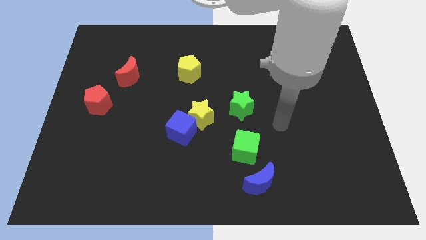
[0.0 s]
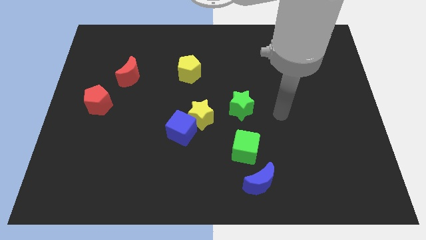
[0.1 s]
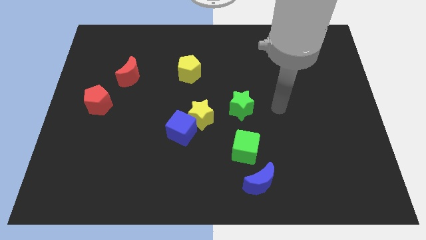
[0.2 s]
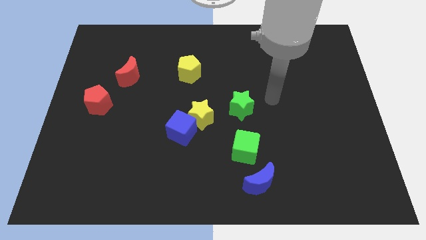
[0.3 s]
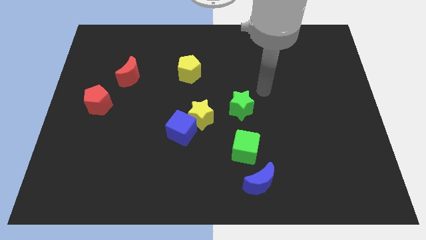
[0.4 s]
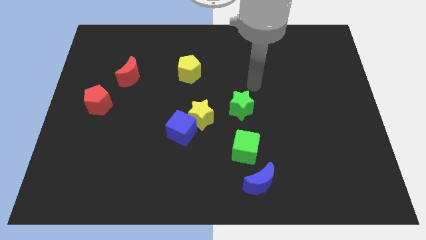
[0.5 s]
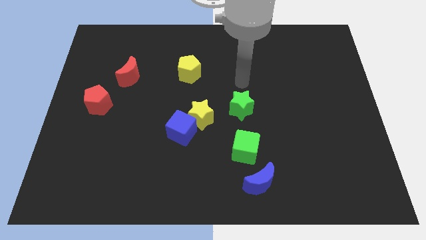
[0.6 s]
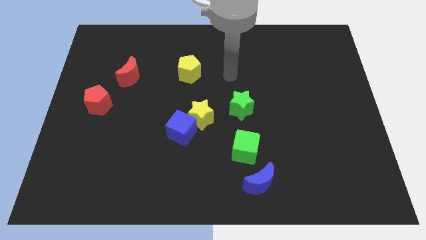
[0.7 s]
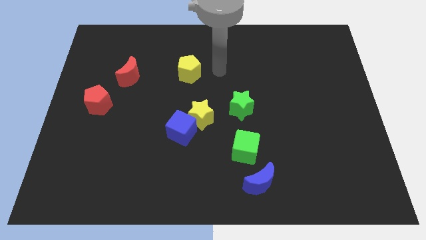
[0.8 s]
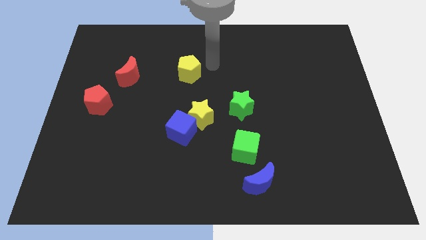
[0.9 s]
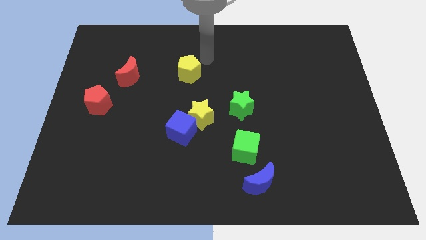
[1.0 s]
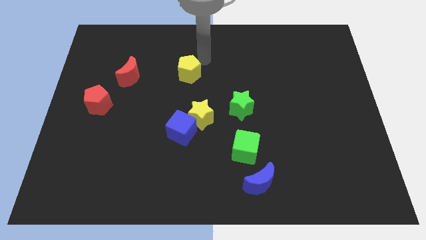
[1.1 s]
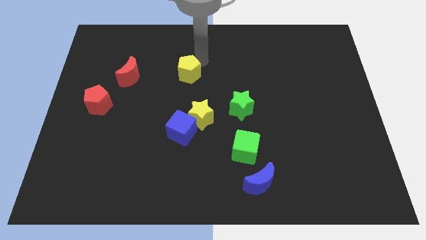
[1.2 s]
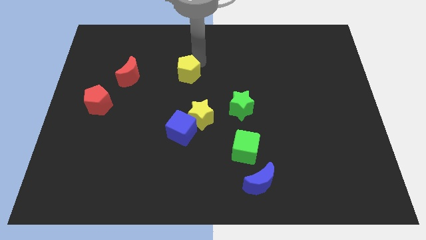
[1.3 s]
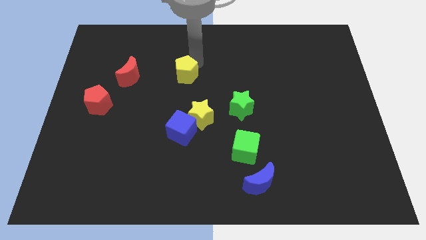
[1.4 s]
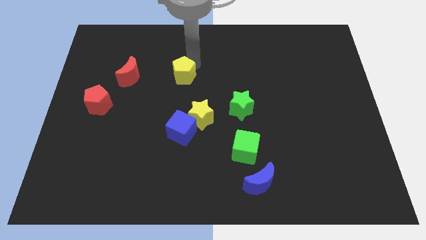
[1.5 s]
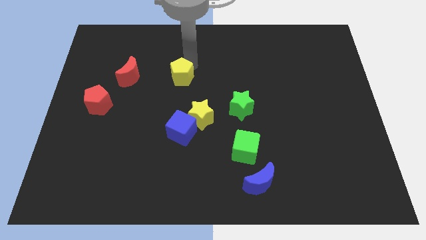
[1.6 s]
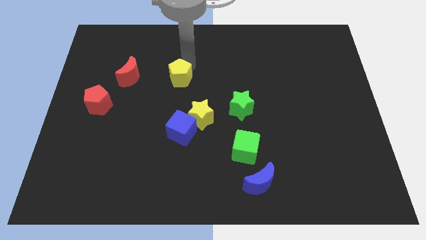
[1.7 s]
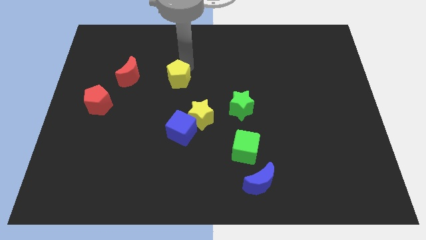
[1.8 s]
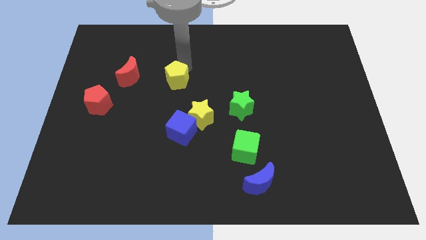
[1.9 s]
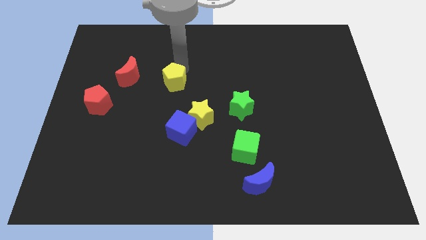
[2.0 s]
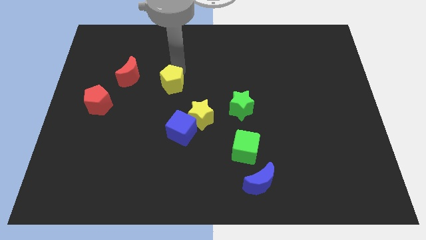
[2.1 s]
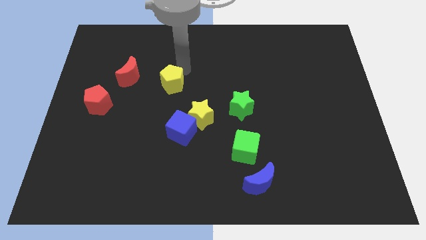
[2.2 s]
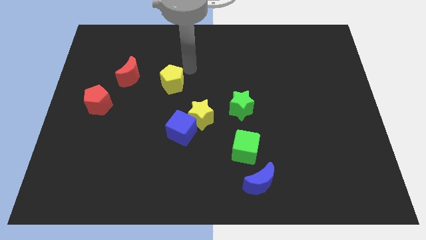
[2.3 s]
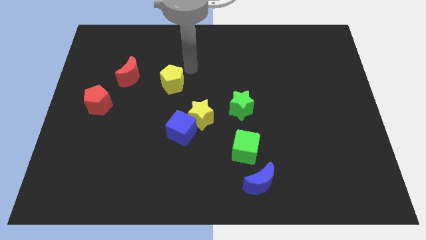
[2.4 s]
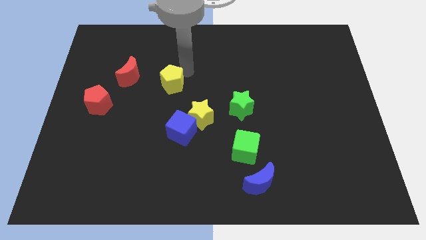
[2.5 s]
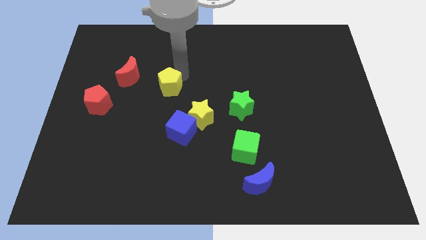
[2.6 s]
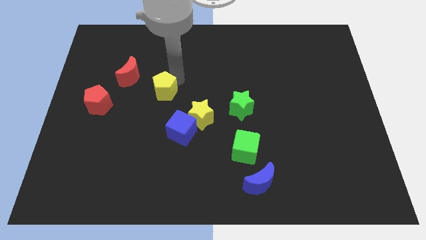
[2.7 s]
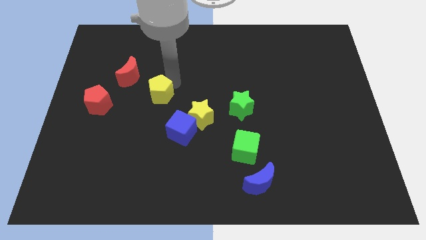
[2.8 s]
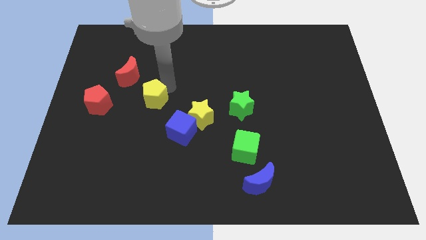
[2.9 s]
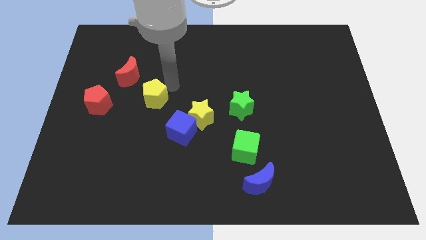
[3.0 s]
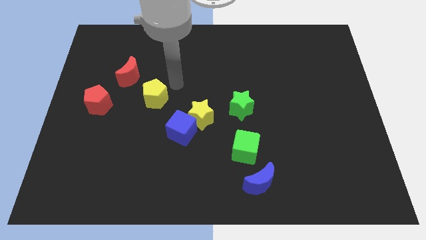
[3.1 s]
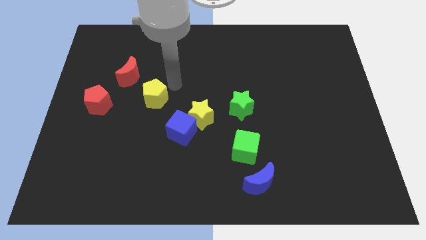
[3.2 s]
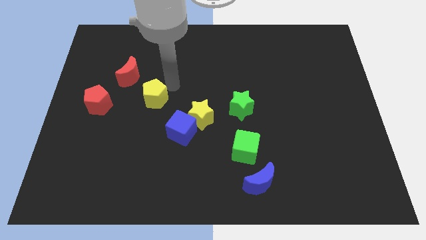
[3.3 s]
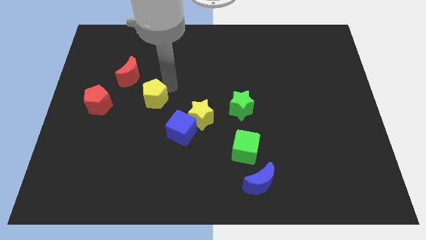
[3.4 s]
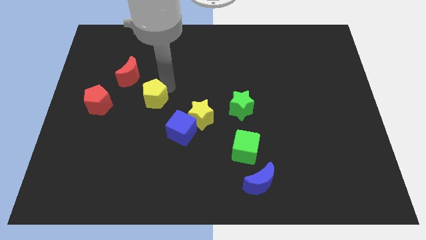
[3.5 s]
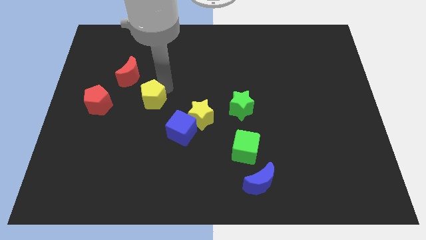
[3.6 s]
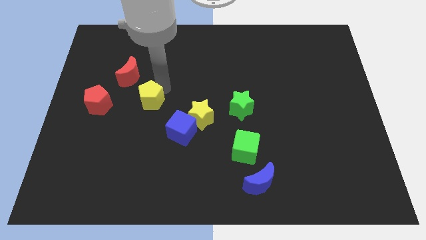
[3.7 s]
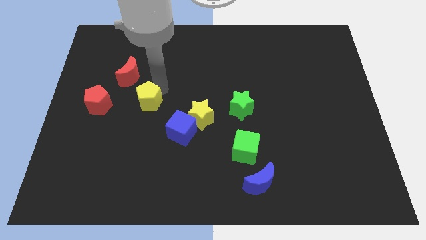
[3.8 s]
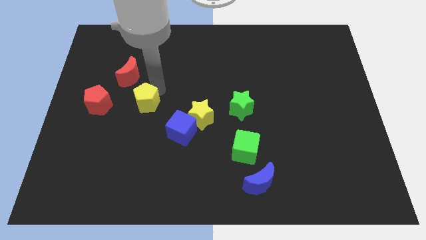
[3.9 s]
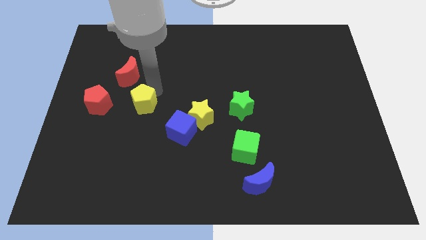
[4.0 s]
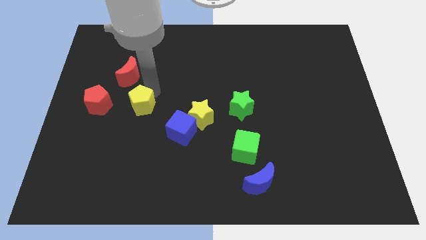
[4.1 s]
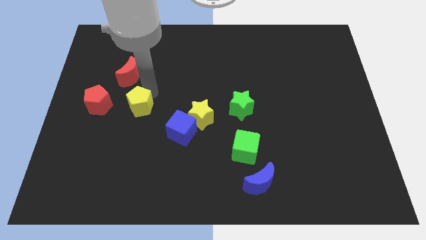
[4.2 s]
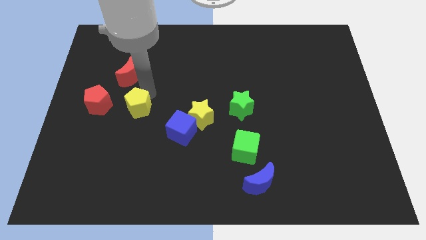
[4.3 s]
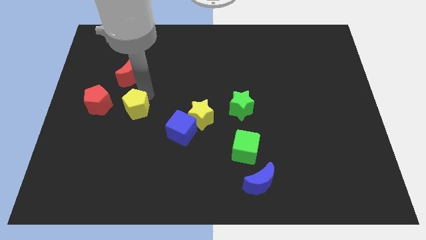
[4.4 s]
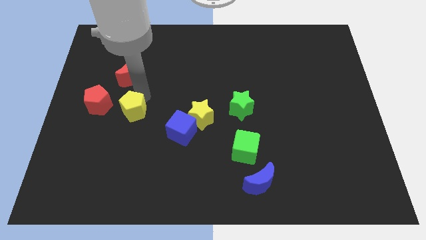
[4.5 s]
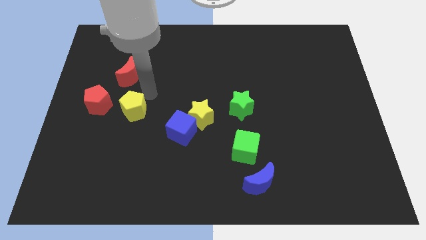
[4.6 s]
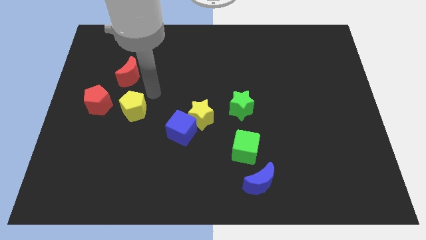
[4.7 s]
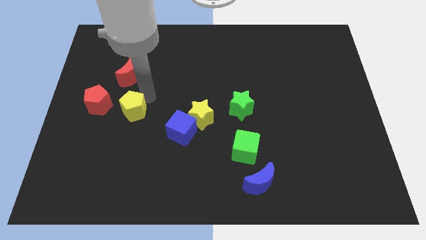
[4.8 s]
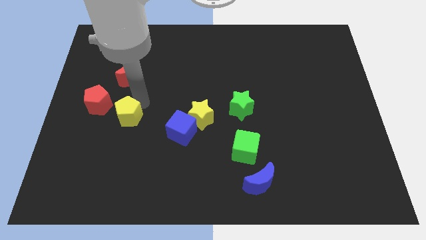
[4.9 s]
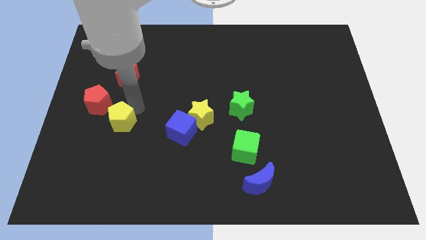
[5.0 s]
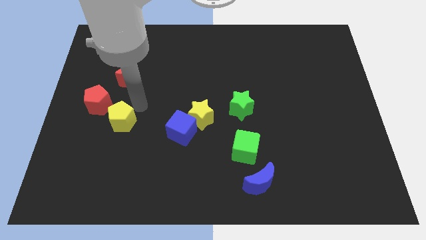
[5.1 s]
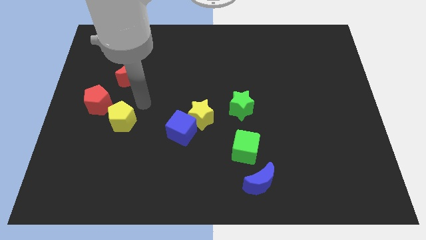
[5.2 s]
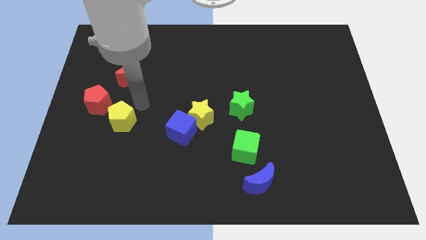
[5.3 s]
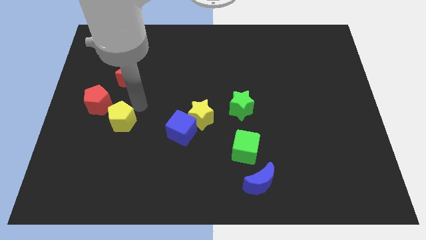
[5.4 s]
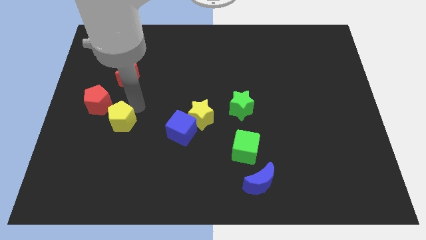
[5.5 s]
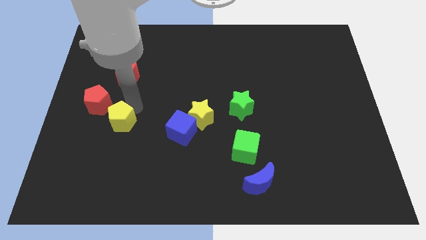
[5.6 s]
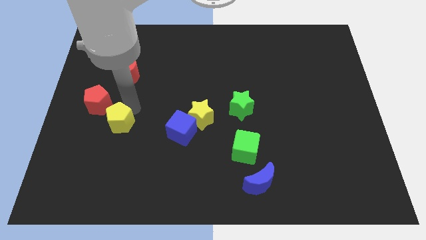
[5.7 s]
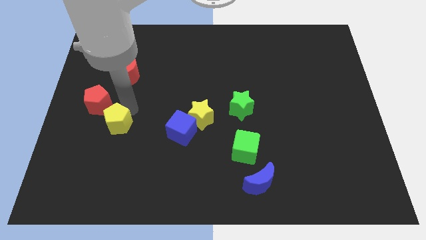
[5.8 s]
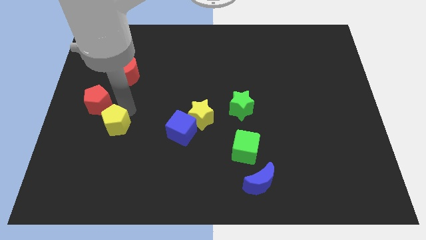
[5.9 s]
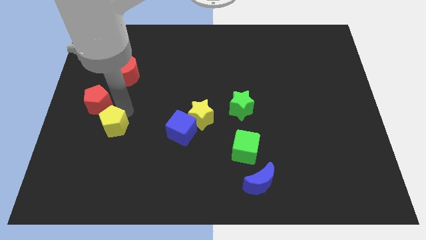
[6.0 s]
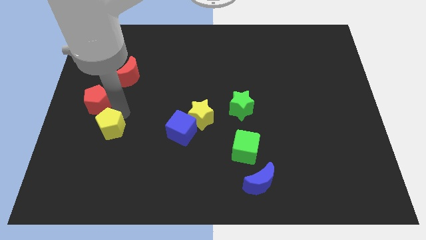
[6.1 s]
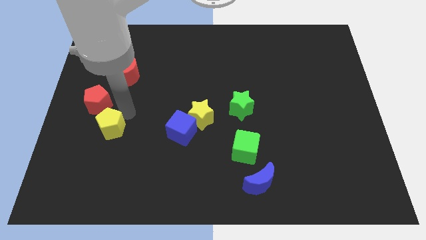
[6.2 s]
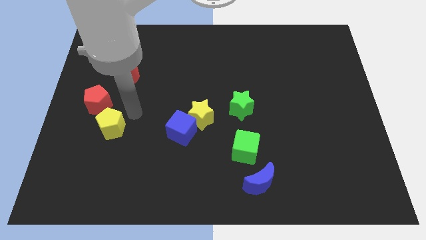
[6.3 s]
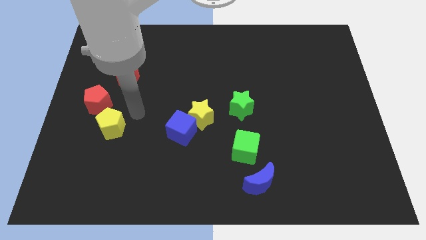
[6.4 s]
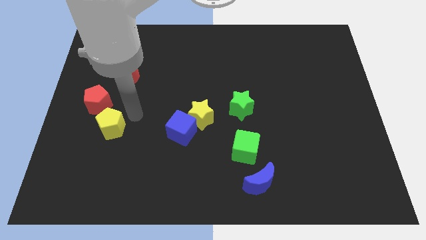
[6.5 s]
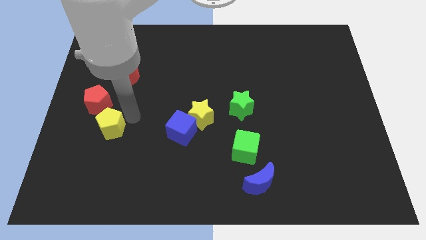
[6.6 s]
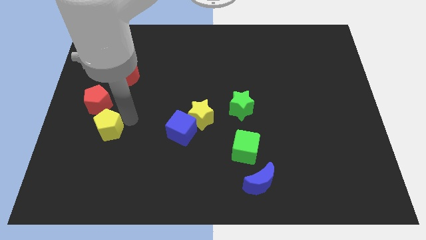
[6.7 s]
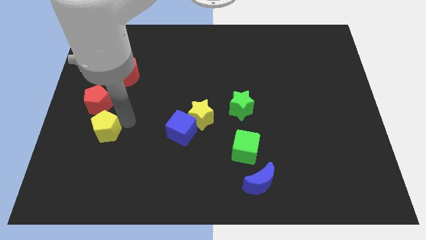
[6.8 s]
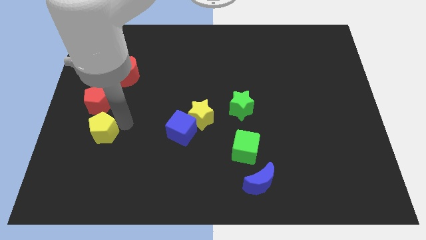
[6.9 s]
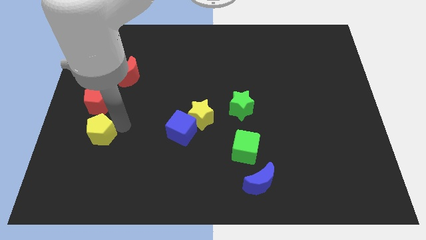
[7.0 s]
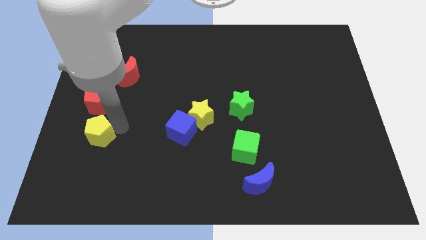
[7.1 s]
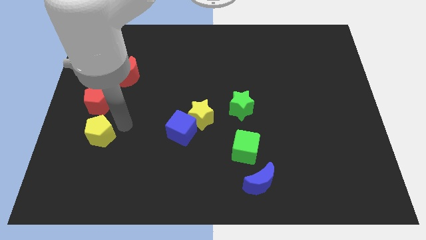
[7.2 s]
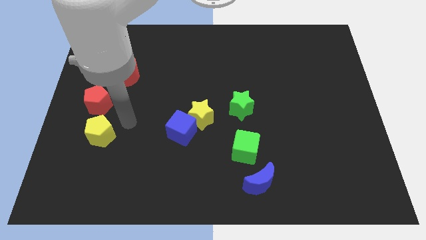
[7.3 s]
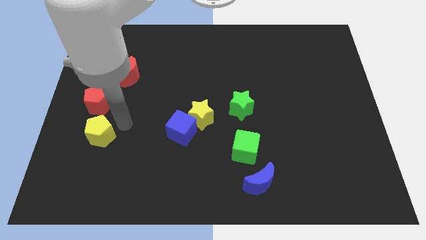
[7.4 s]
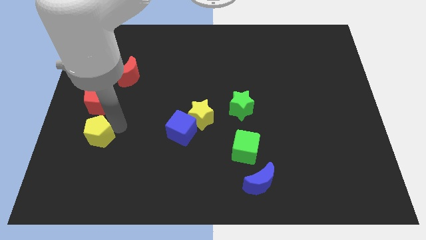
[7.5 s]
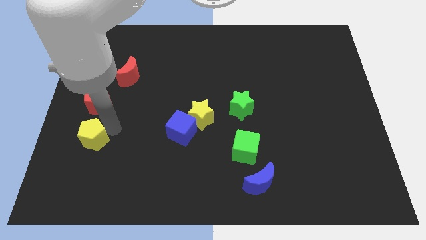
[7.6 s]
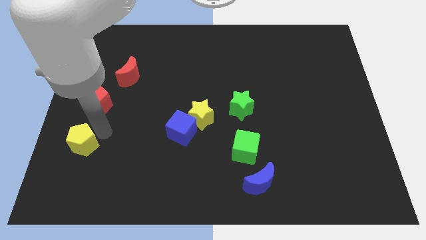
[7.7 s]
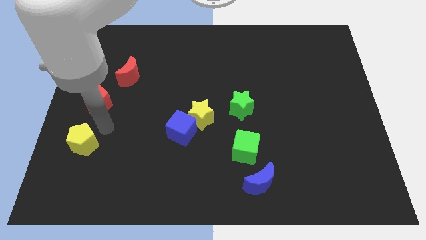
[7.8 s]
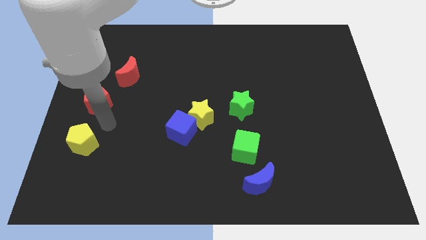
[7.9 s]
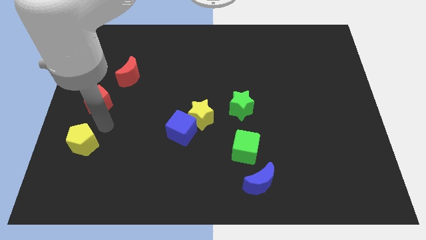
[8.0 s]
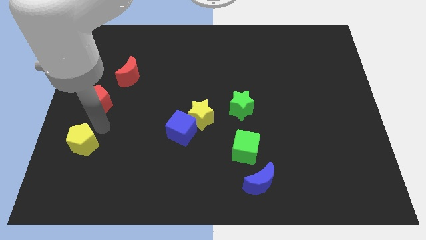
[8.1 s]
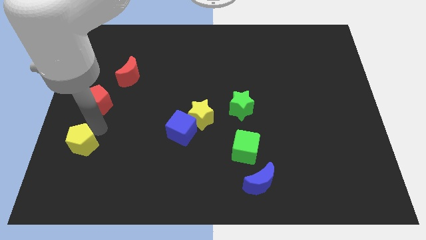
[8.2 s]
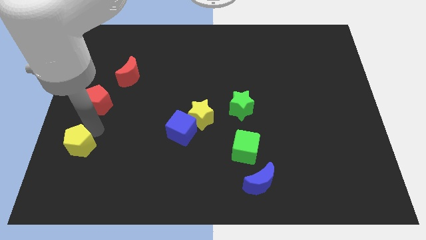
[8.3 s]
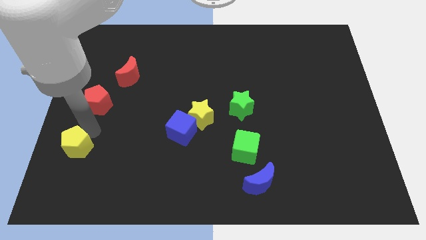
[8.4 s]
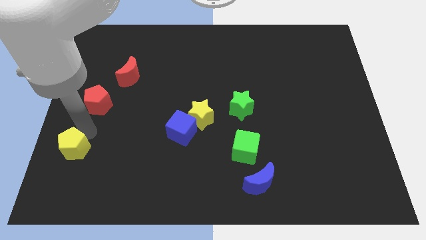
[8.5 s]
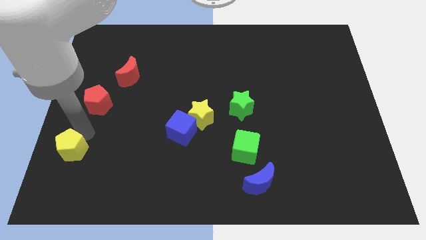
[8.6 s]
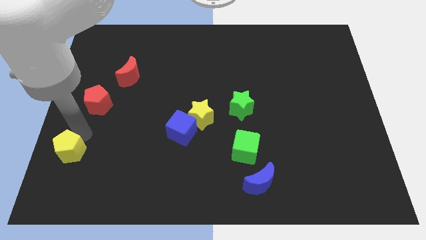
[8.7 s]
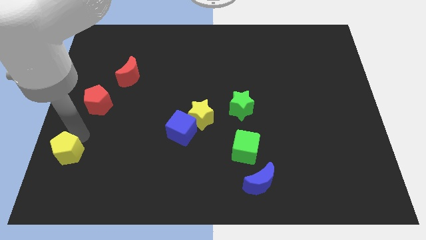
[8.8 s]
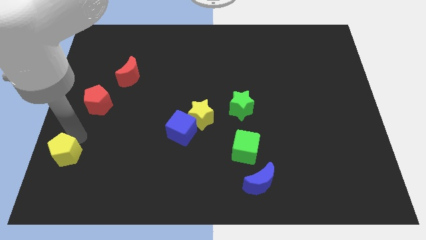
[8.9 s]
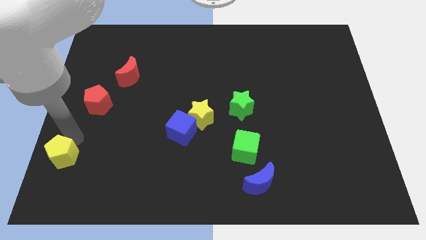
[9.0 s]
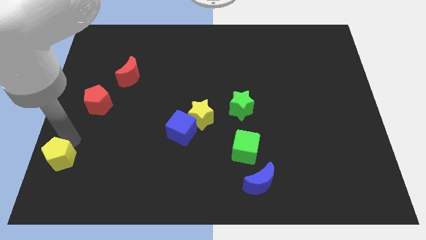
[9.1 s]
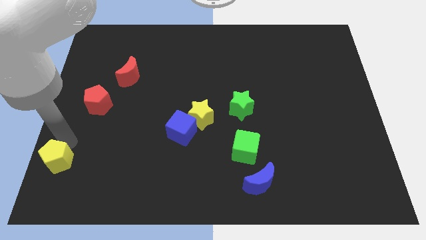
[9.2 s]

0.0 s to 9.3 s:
push the yellow pentagon to the lower left corner
